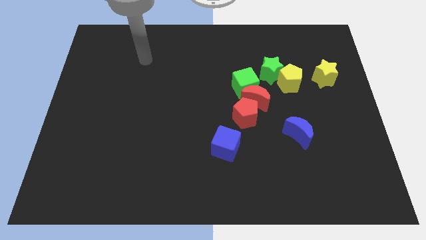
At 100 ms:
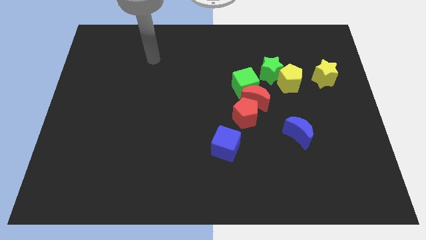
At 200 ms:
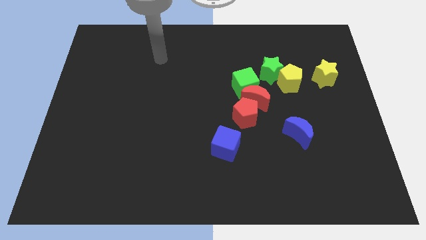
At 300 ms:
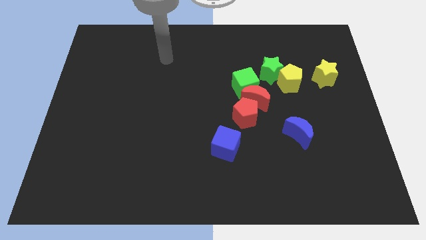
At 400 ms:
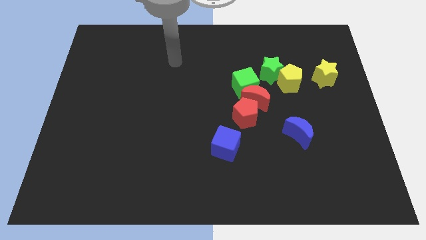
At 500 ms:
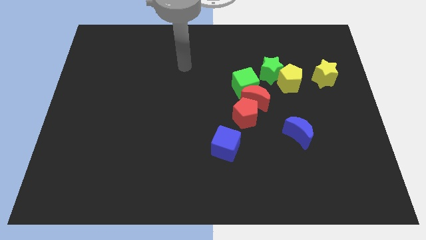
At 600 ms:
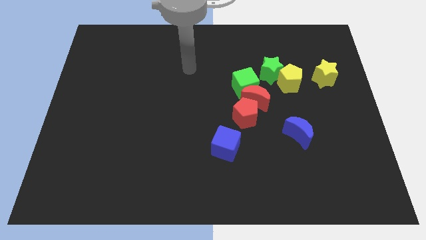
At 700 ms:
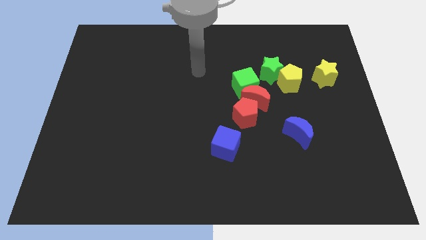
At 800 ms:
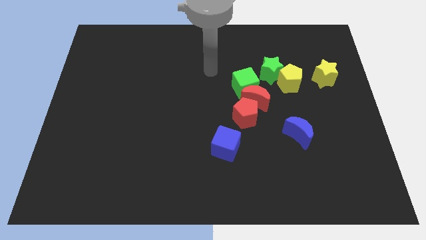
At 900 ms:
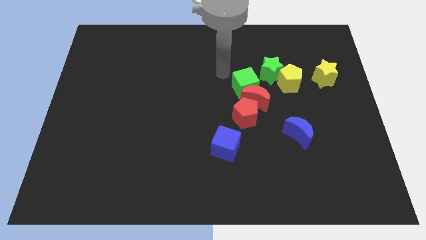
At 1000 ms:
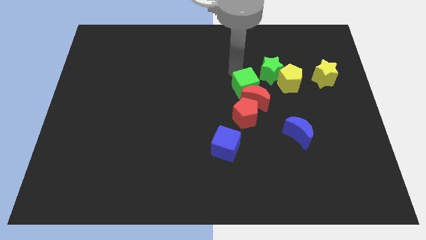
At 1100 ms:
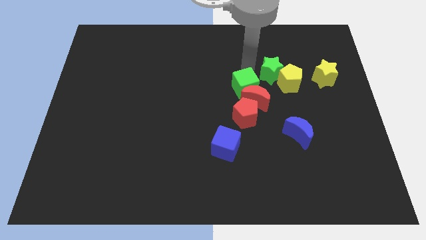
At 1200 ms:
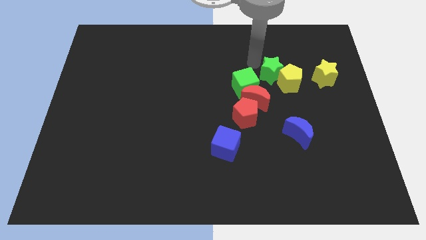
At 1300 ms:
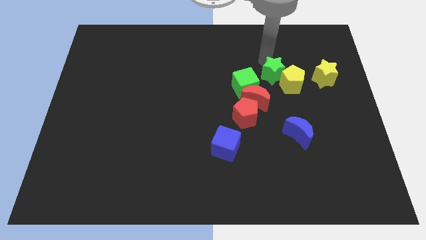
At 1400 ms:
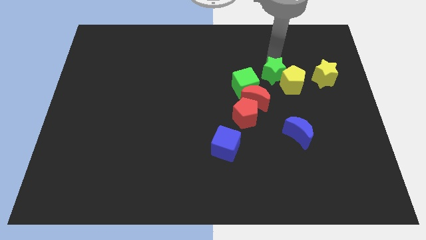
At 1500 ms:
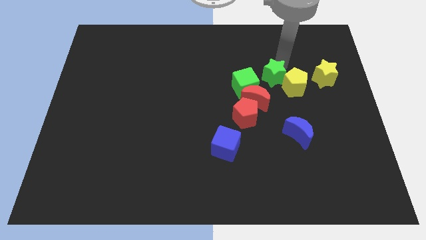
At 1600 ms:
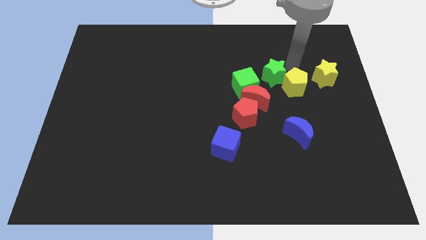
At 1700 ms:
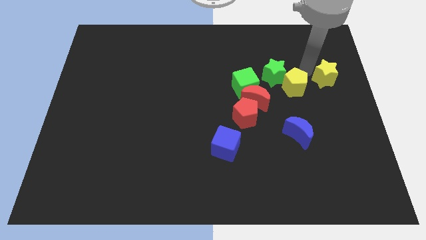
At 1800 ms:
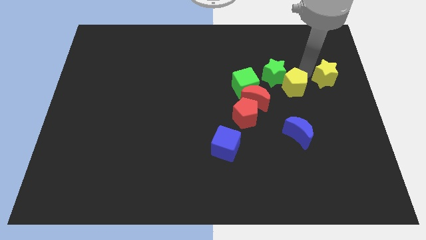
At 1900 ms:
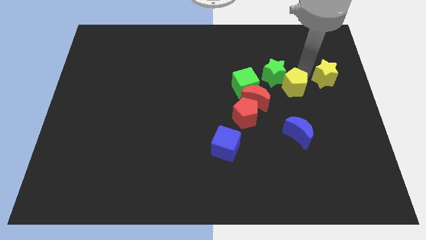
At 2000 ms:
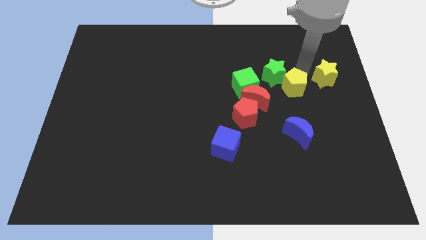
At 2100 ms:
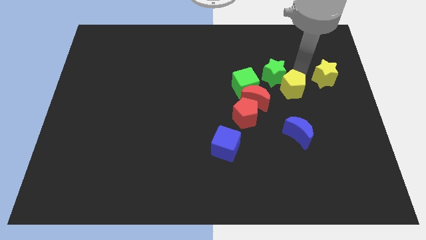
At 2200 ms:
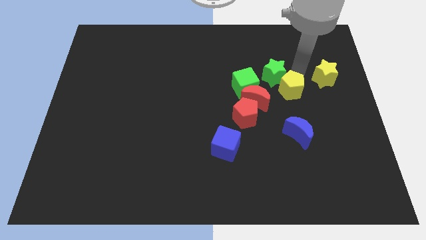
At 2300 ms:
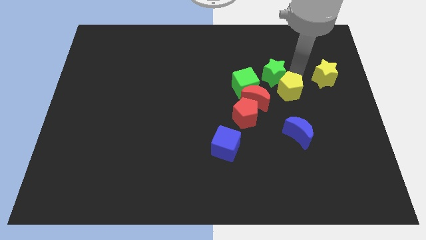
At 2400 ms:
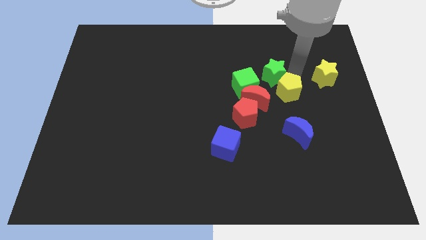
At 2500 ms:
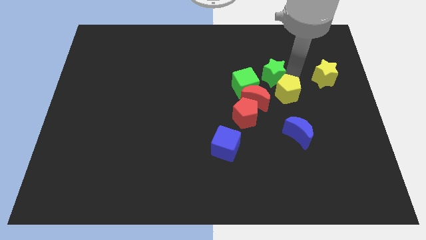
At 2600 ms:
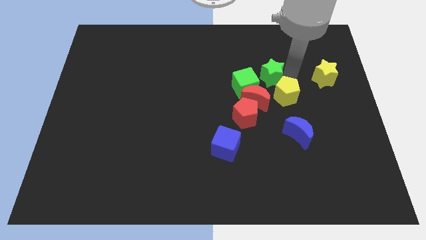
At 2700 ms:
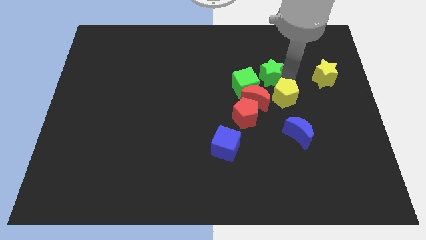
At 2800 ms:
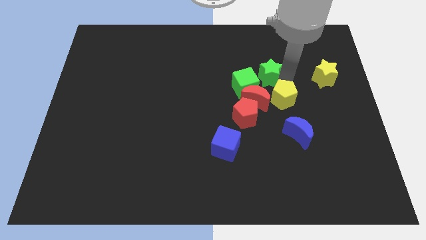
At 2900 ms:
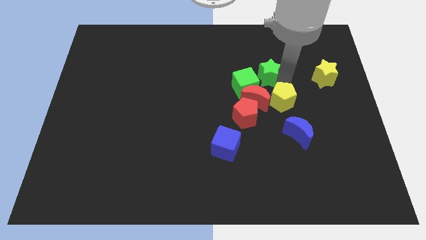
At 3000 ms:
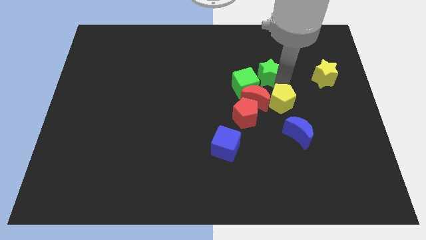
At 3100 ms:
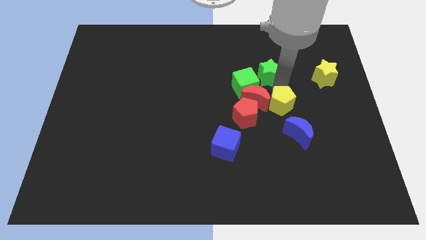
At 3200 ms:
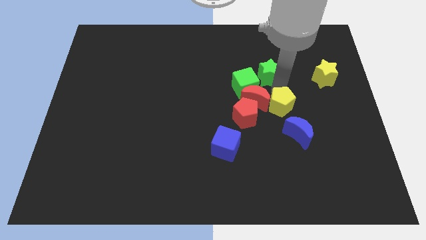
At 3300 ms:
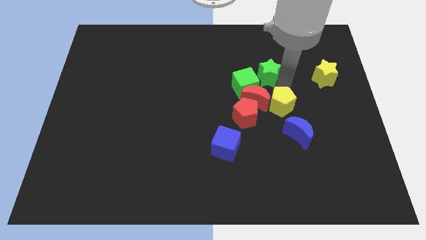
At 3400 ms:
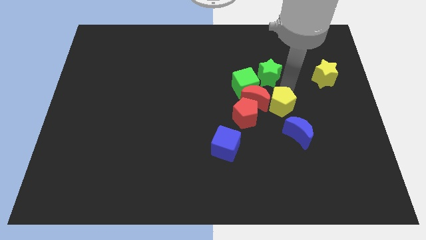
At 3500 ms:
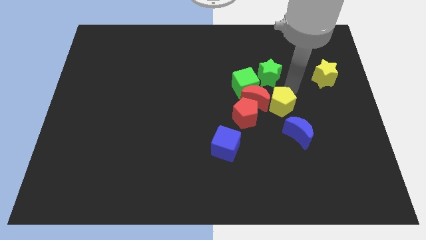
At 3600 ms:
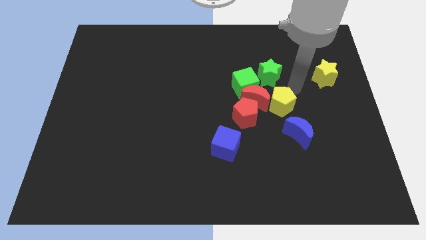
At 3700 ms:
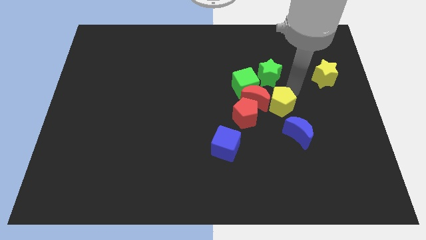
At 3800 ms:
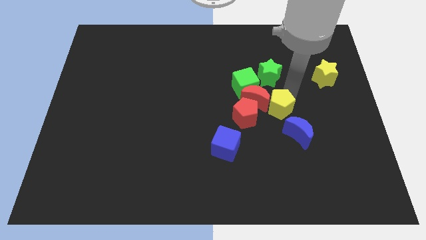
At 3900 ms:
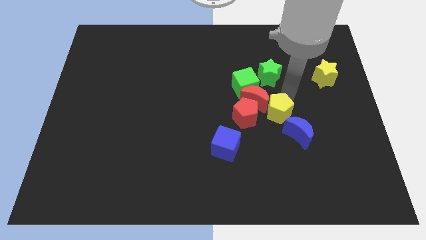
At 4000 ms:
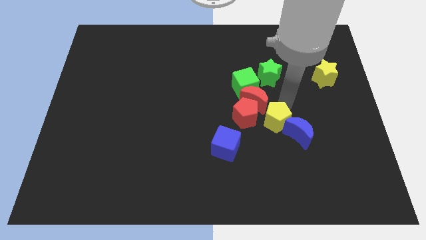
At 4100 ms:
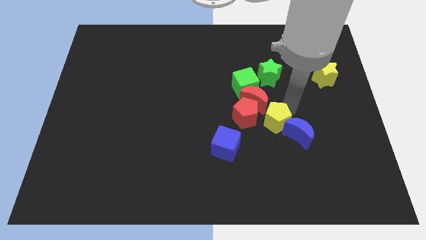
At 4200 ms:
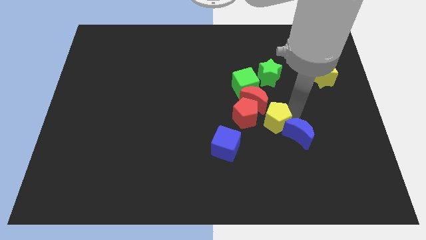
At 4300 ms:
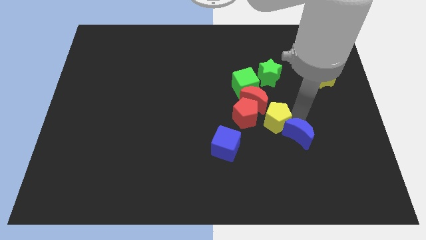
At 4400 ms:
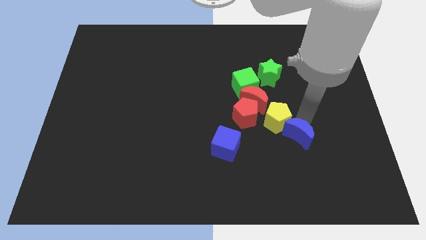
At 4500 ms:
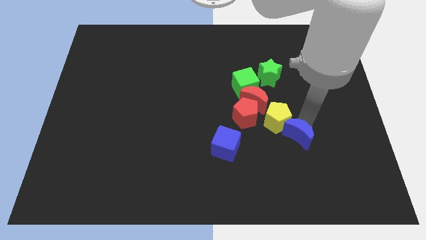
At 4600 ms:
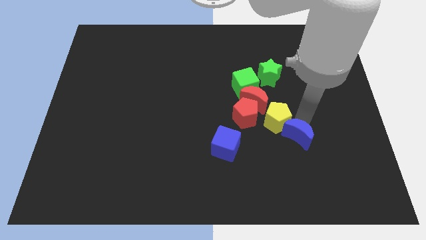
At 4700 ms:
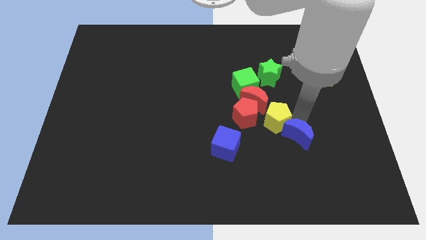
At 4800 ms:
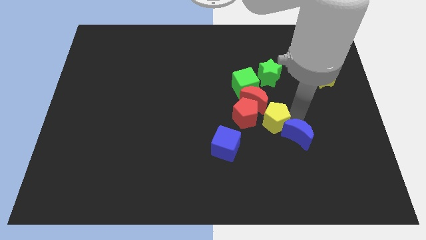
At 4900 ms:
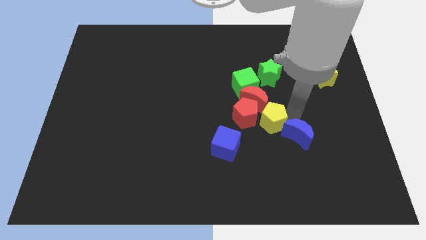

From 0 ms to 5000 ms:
move the yellow pentagon next to the red pentagon

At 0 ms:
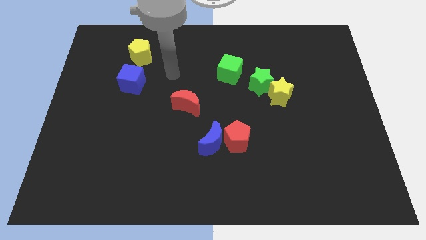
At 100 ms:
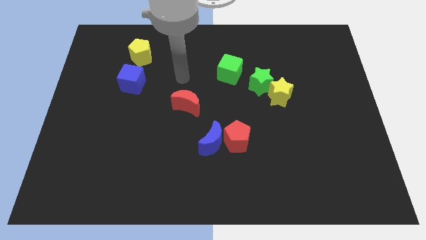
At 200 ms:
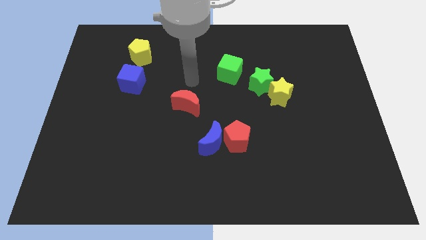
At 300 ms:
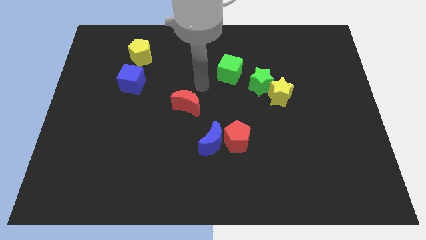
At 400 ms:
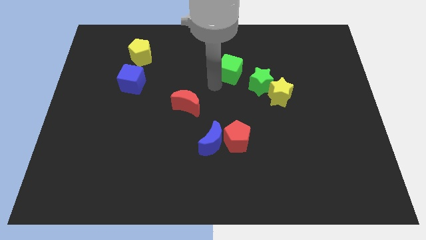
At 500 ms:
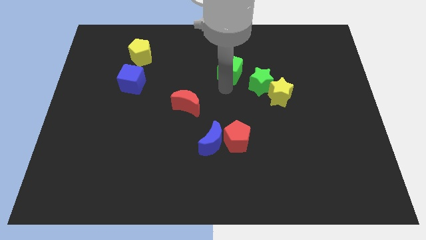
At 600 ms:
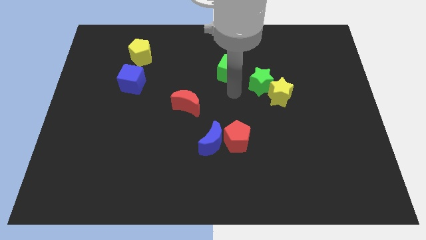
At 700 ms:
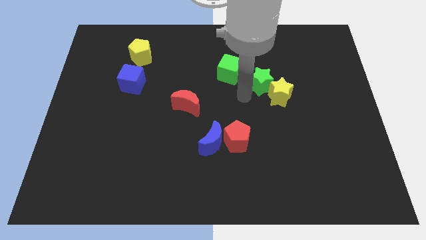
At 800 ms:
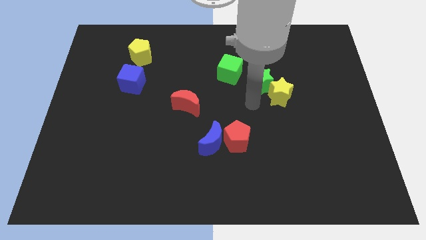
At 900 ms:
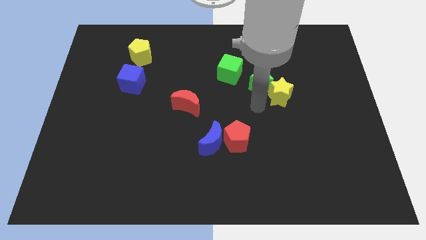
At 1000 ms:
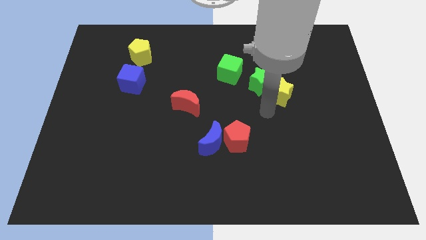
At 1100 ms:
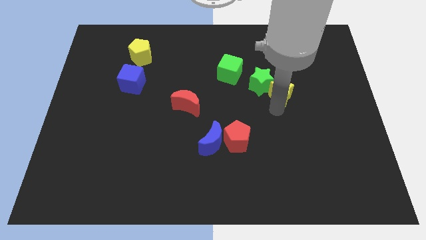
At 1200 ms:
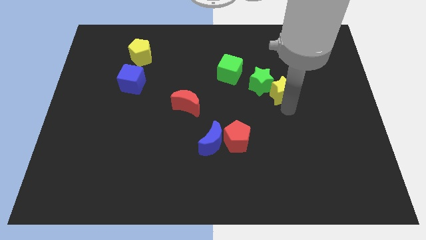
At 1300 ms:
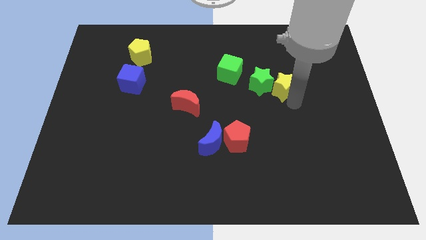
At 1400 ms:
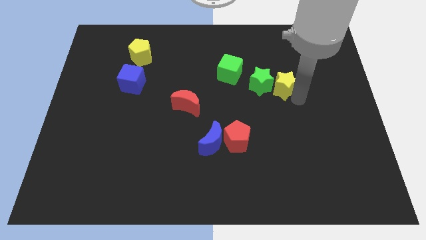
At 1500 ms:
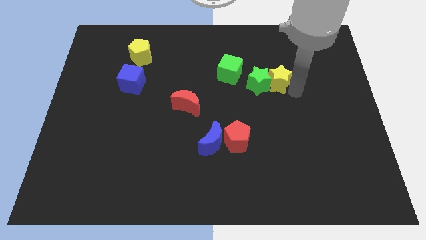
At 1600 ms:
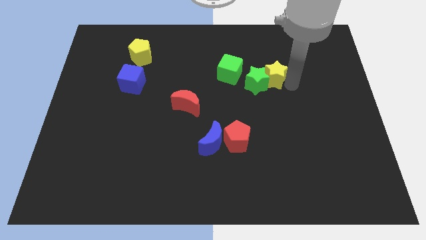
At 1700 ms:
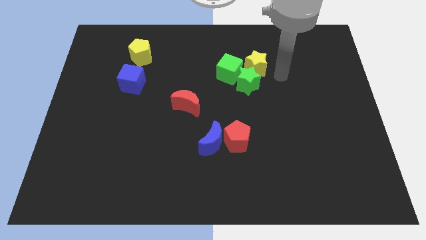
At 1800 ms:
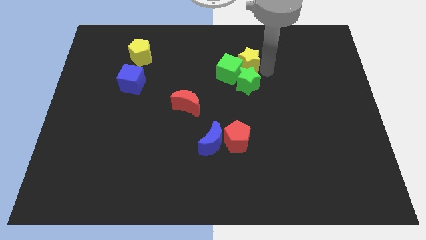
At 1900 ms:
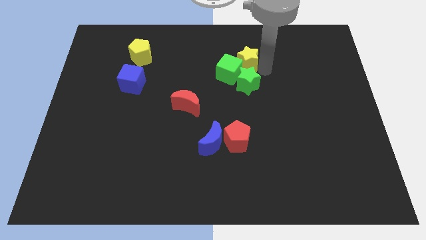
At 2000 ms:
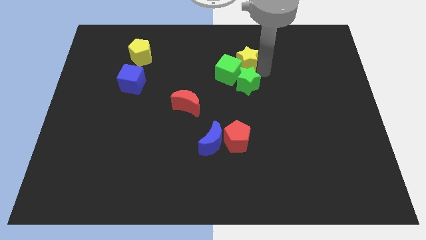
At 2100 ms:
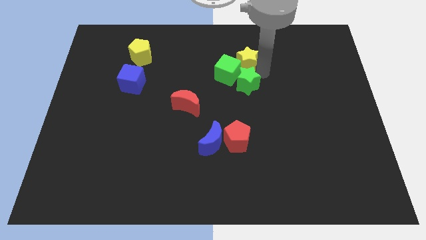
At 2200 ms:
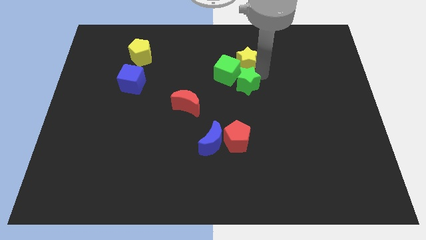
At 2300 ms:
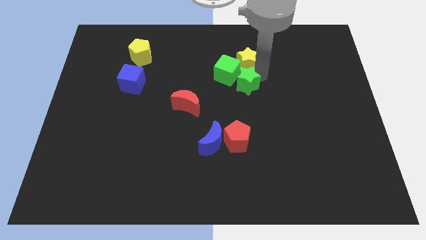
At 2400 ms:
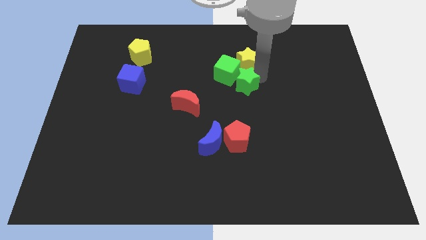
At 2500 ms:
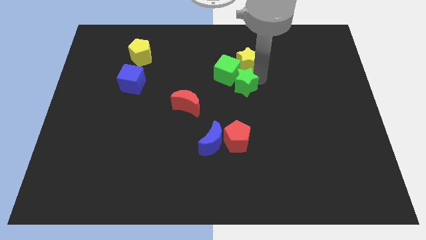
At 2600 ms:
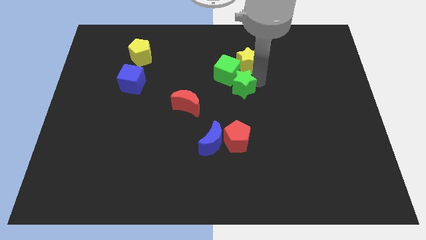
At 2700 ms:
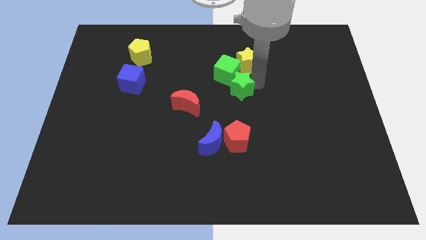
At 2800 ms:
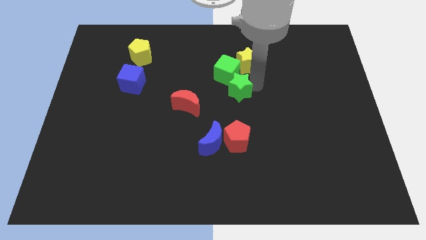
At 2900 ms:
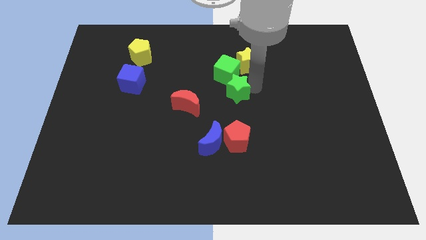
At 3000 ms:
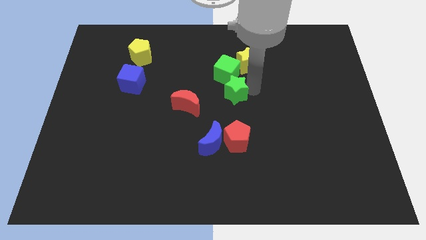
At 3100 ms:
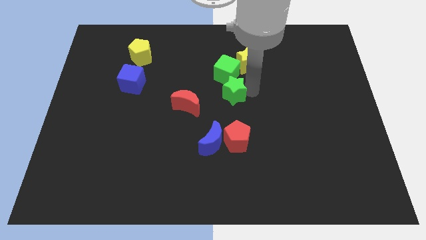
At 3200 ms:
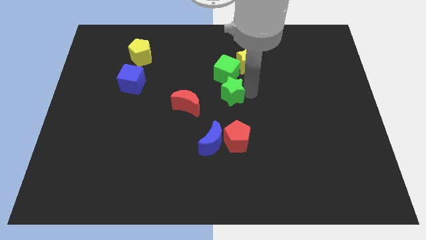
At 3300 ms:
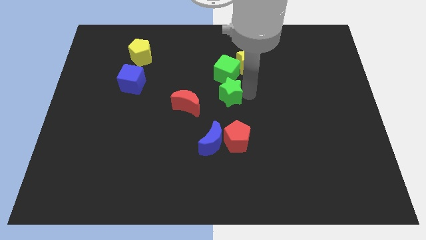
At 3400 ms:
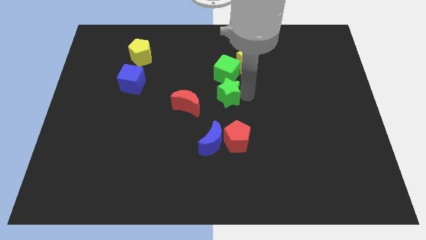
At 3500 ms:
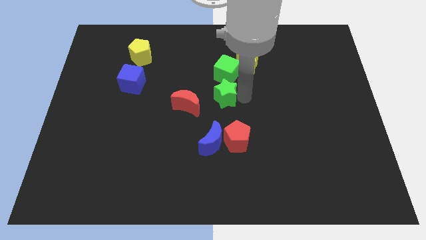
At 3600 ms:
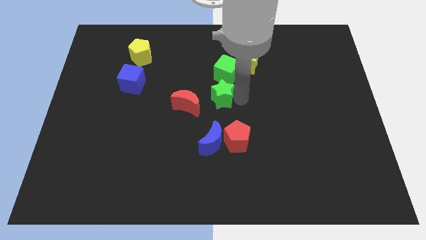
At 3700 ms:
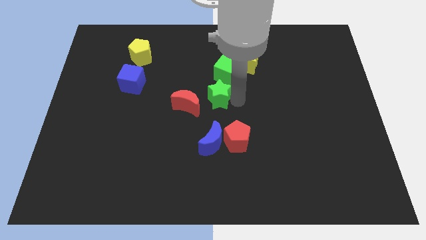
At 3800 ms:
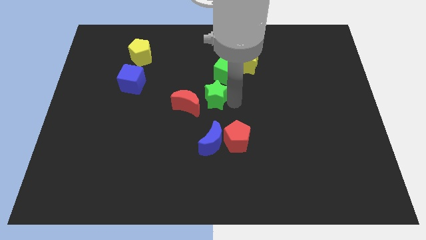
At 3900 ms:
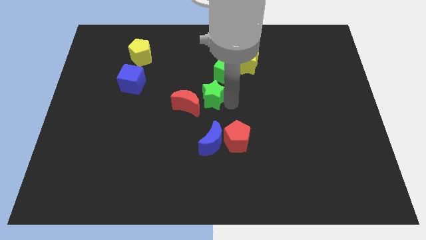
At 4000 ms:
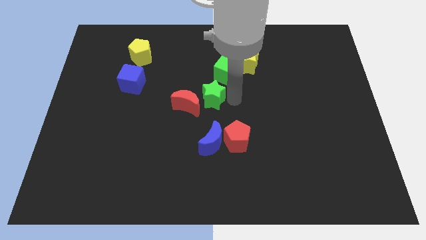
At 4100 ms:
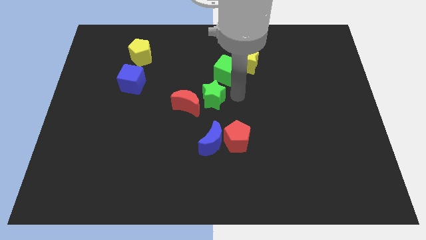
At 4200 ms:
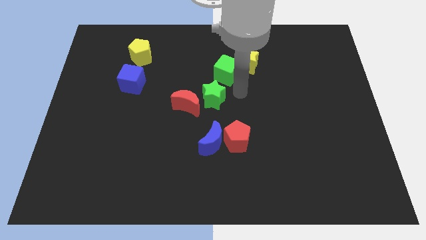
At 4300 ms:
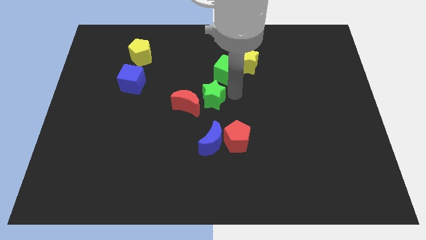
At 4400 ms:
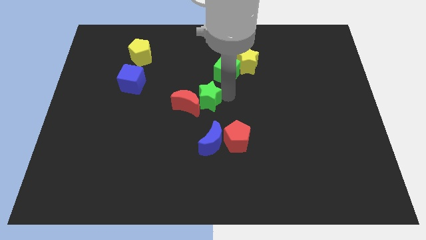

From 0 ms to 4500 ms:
put the green star close to the red moon
